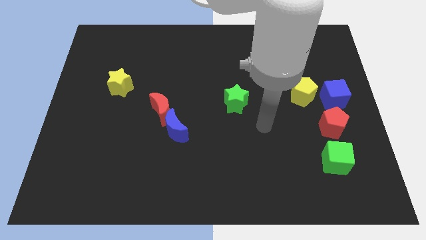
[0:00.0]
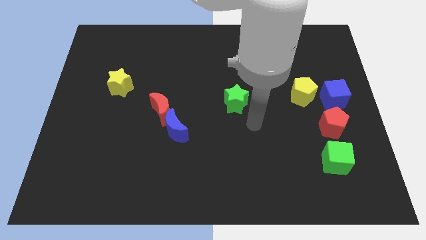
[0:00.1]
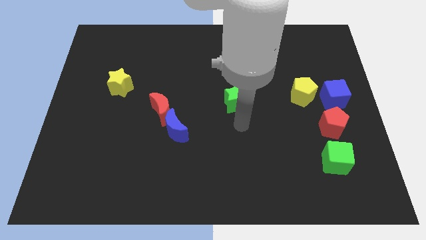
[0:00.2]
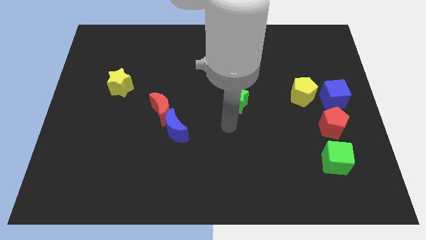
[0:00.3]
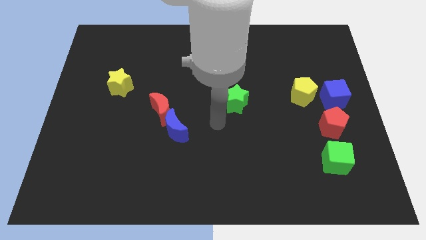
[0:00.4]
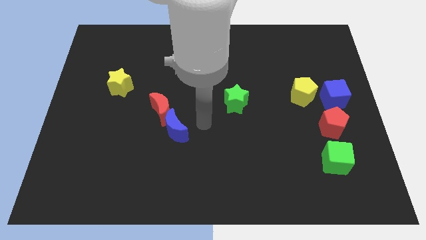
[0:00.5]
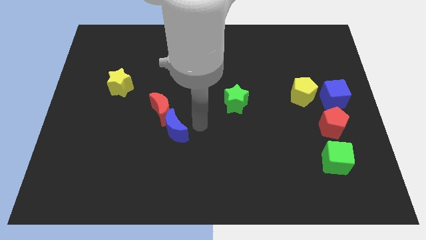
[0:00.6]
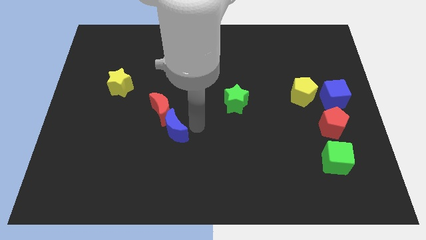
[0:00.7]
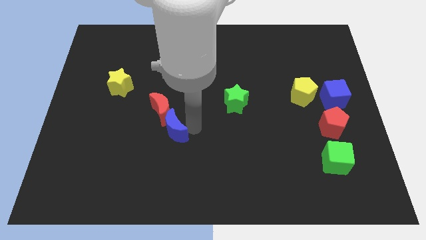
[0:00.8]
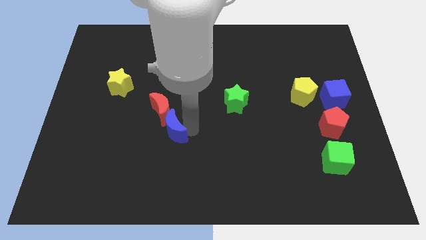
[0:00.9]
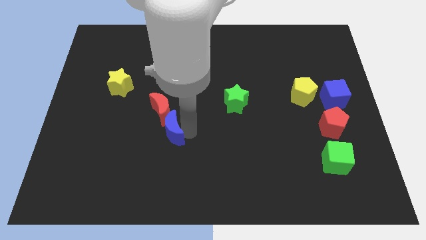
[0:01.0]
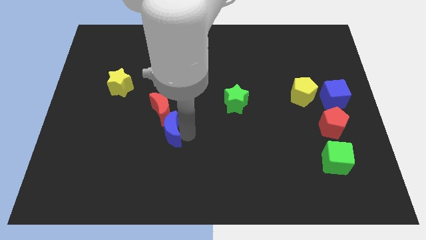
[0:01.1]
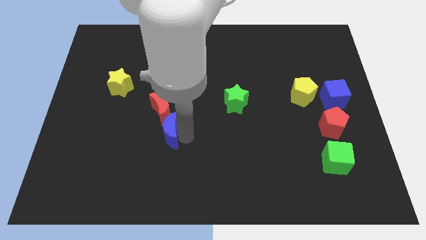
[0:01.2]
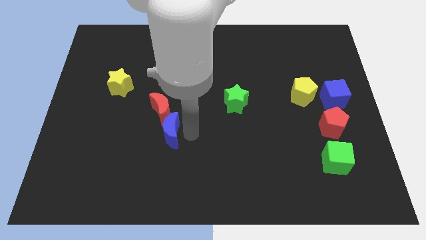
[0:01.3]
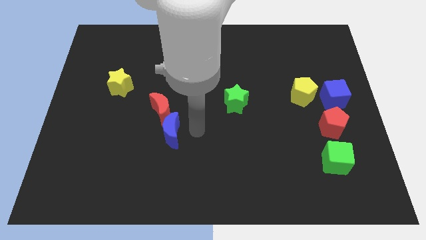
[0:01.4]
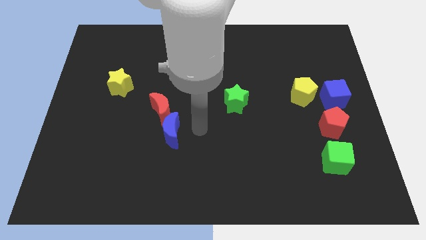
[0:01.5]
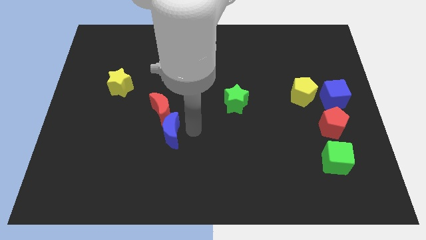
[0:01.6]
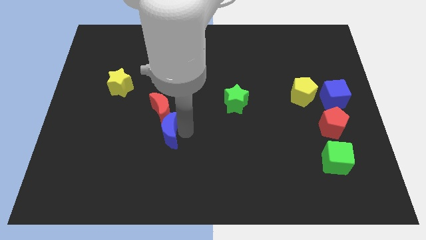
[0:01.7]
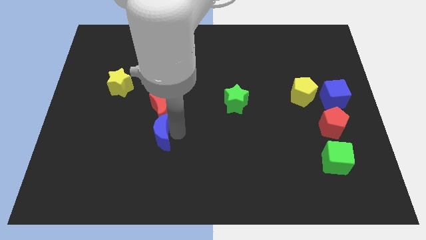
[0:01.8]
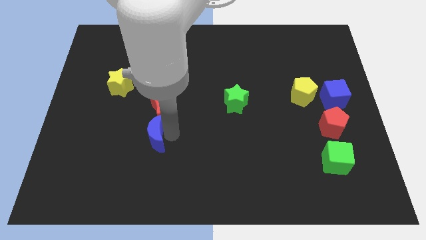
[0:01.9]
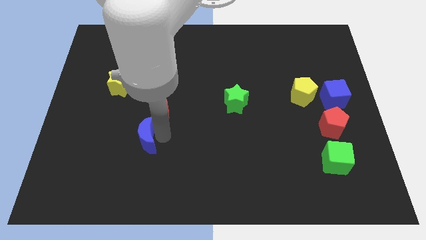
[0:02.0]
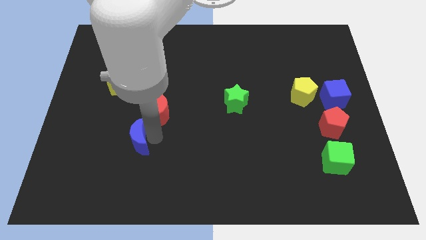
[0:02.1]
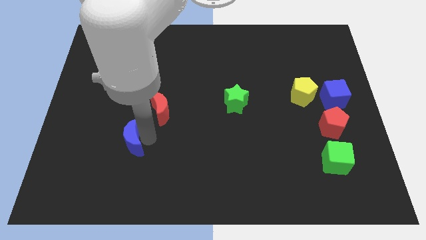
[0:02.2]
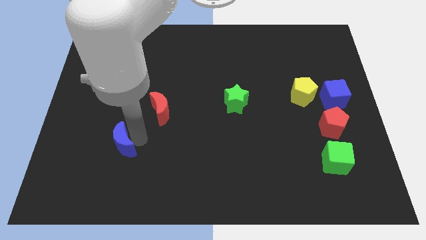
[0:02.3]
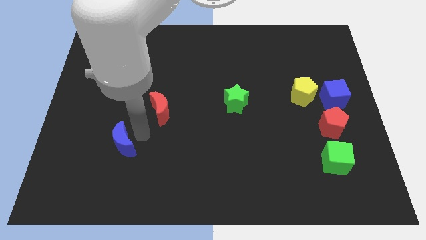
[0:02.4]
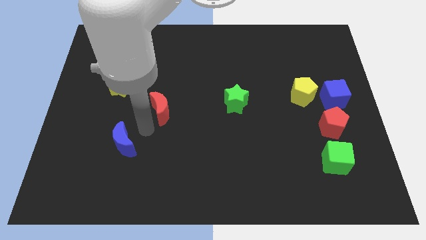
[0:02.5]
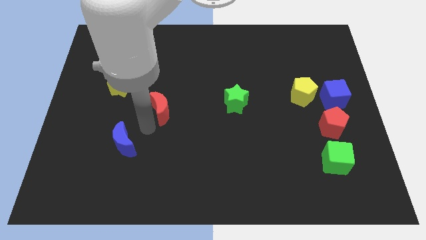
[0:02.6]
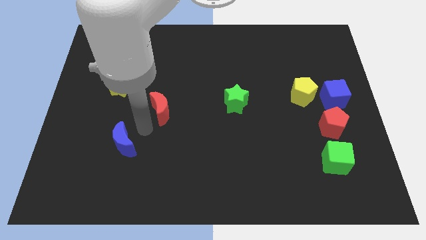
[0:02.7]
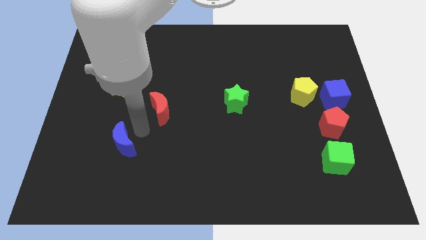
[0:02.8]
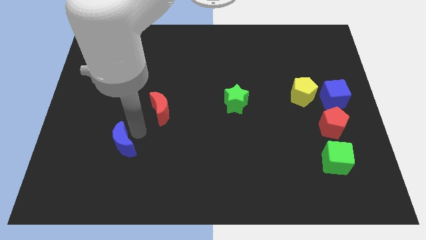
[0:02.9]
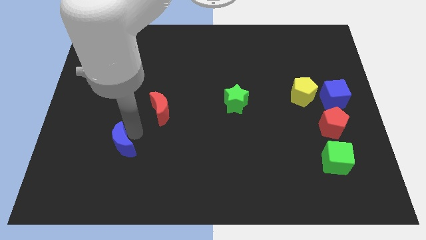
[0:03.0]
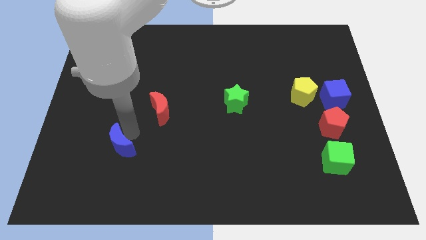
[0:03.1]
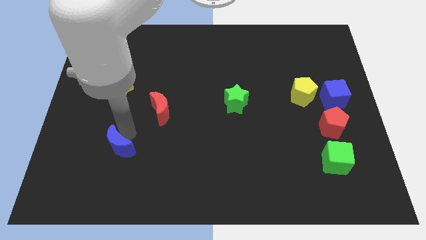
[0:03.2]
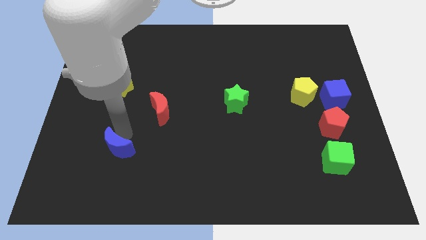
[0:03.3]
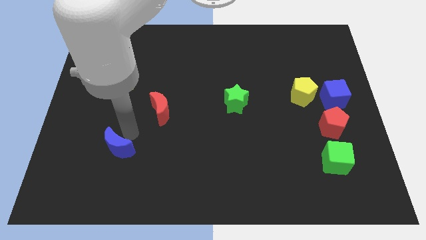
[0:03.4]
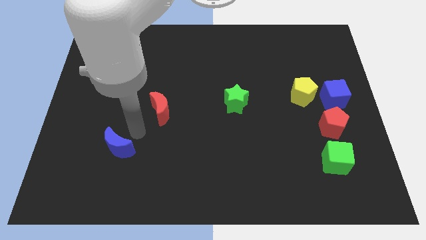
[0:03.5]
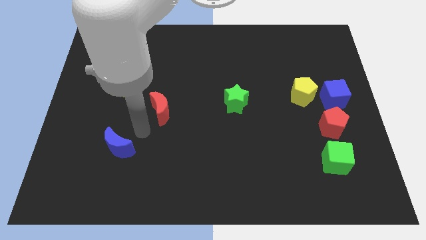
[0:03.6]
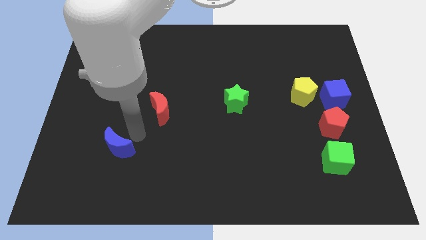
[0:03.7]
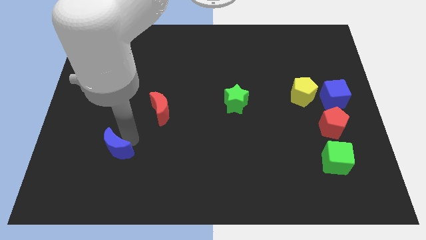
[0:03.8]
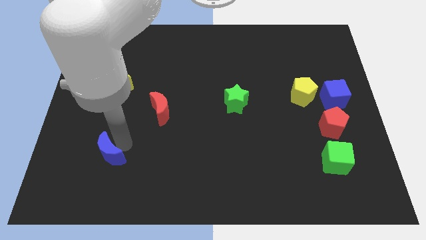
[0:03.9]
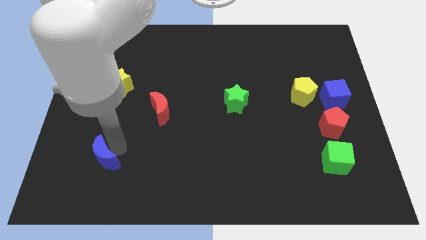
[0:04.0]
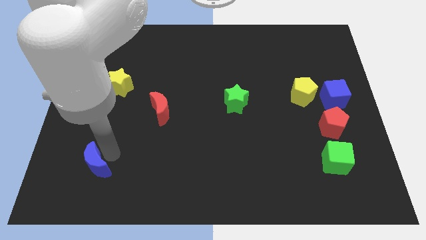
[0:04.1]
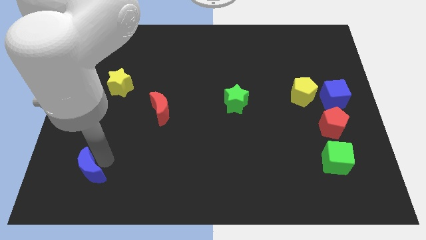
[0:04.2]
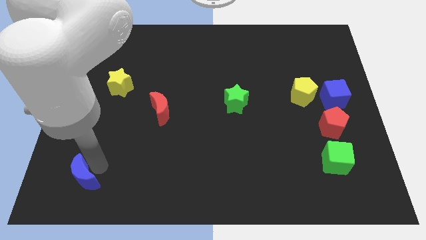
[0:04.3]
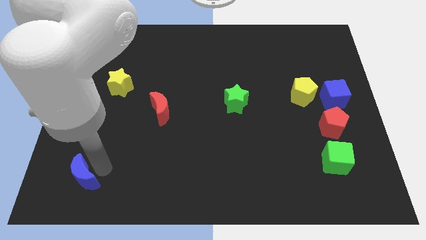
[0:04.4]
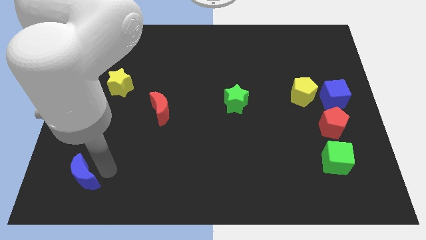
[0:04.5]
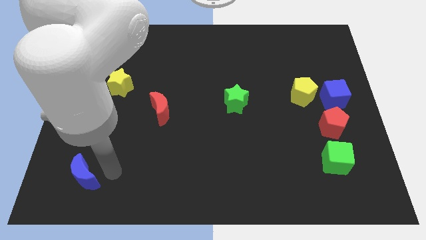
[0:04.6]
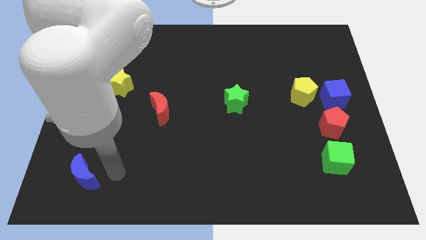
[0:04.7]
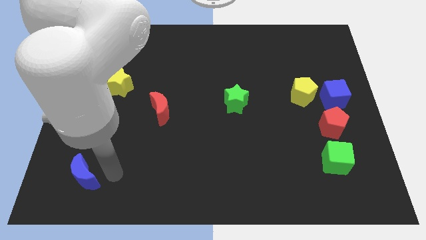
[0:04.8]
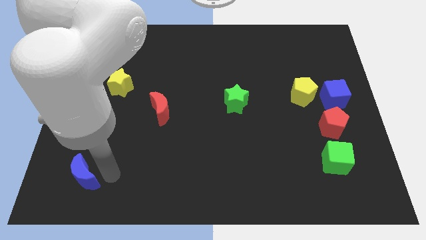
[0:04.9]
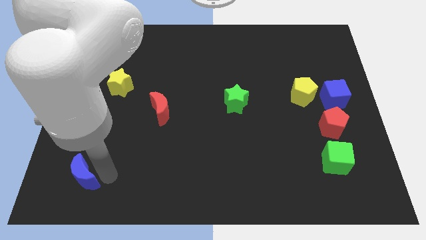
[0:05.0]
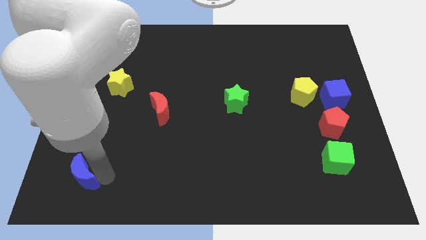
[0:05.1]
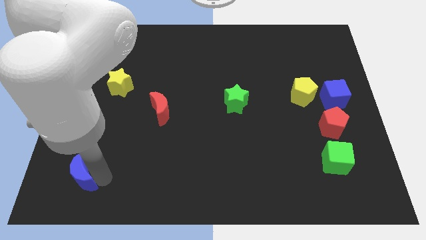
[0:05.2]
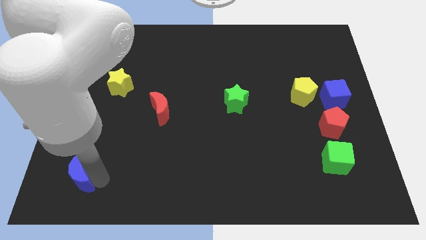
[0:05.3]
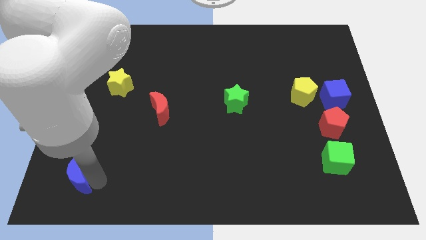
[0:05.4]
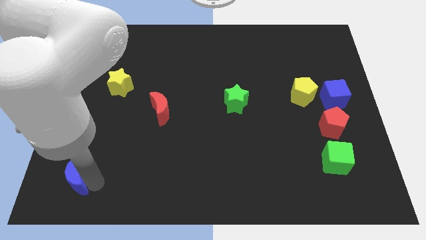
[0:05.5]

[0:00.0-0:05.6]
push the blue moon to the lower left corner

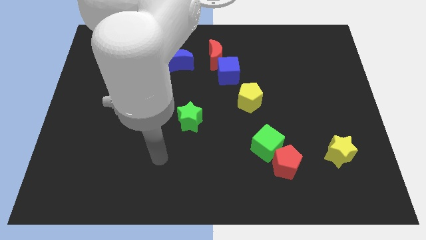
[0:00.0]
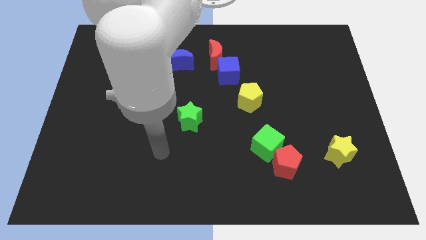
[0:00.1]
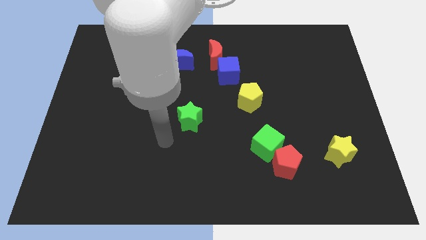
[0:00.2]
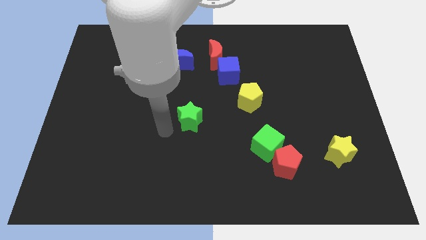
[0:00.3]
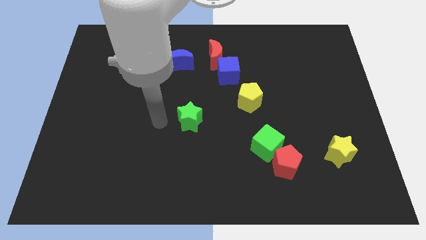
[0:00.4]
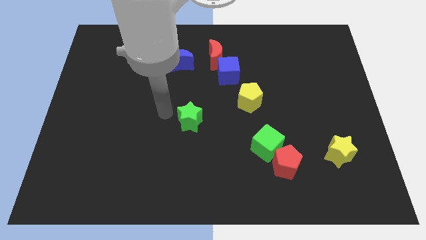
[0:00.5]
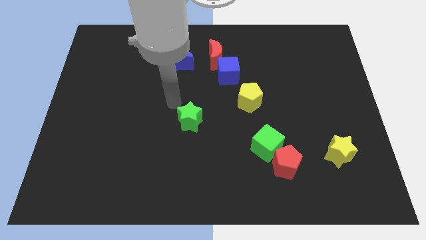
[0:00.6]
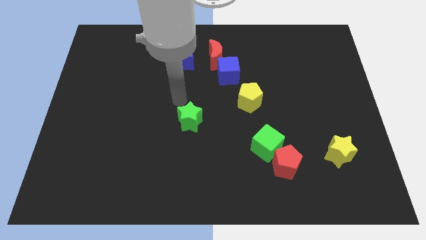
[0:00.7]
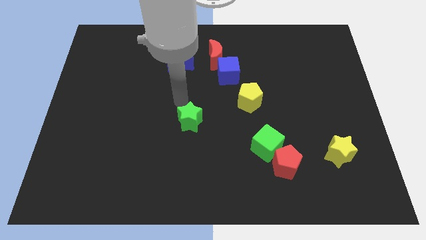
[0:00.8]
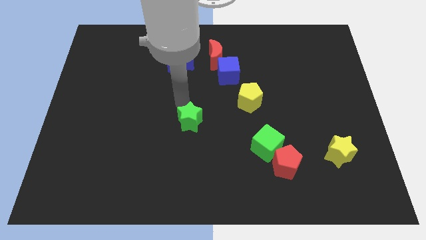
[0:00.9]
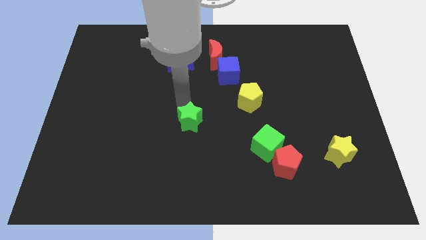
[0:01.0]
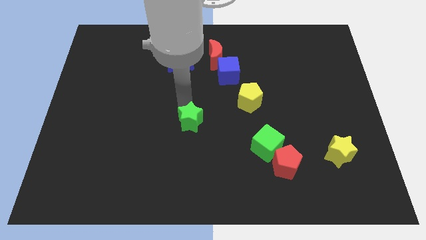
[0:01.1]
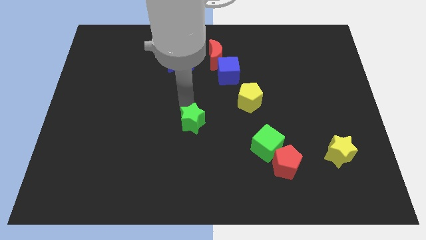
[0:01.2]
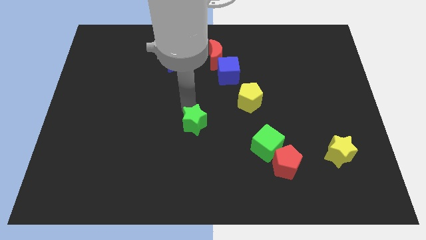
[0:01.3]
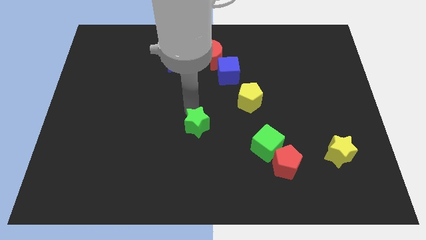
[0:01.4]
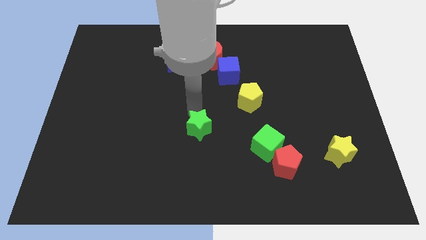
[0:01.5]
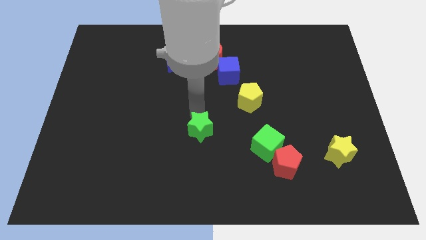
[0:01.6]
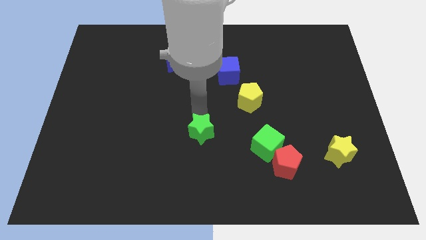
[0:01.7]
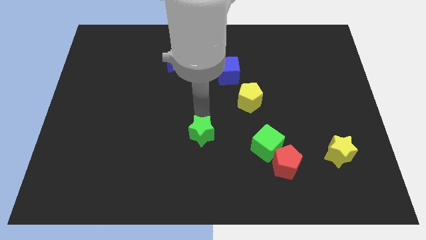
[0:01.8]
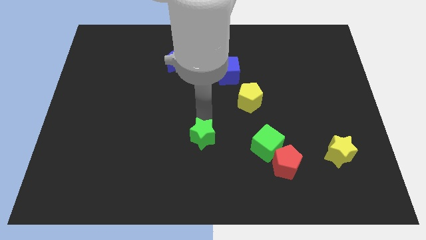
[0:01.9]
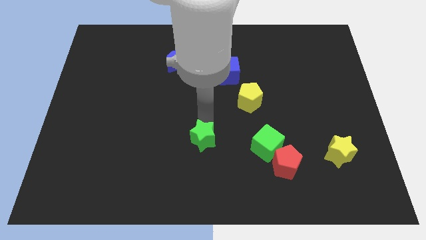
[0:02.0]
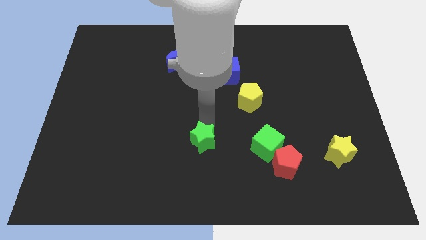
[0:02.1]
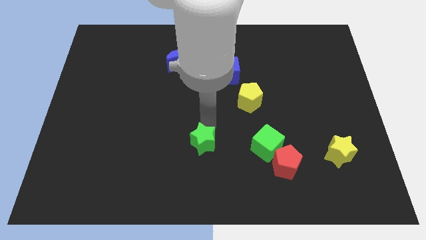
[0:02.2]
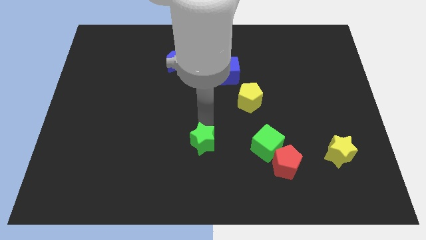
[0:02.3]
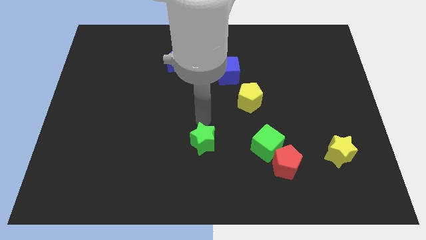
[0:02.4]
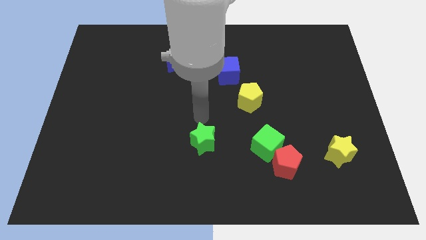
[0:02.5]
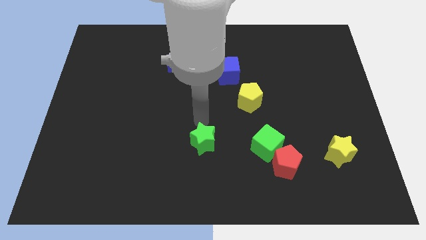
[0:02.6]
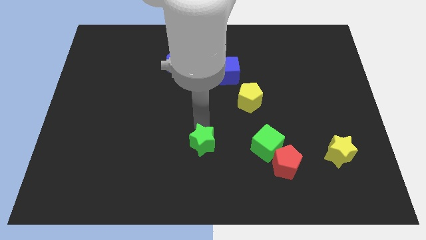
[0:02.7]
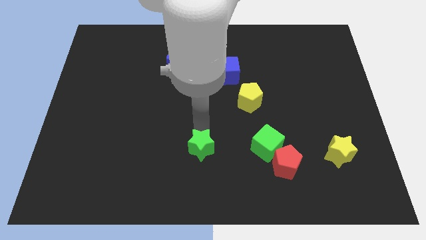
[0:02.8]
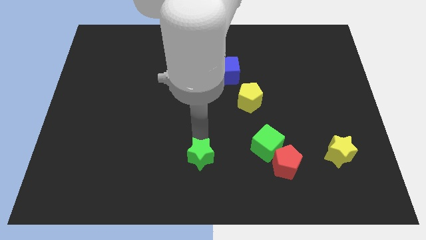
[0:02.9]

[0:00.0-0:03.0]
move the green star to the bottom
